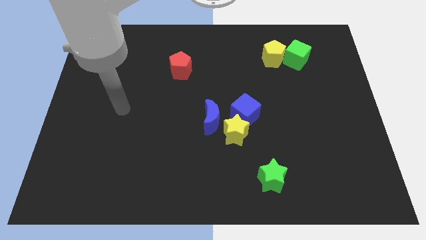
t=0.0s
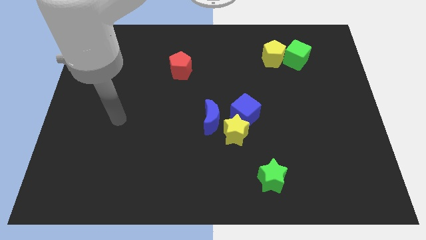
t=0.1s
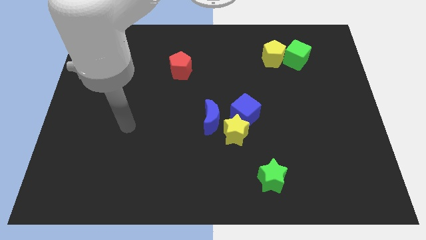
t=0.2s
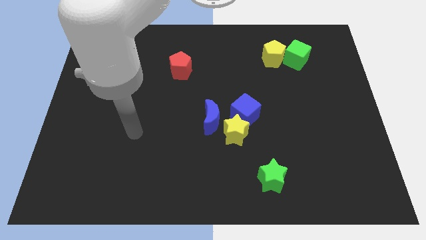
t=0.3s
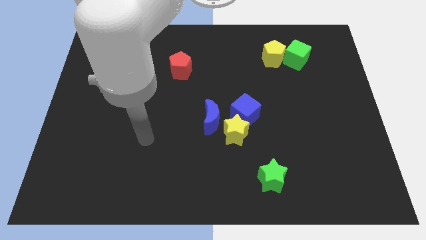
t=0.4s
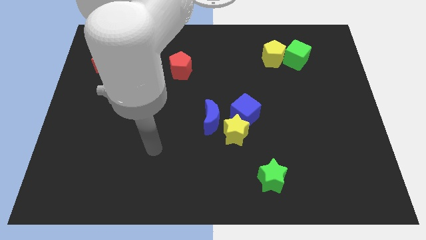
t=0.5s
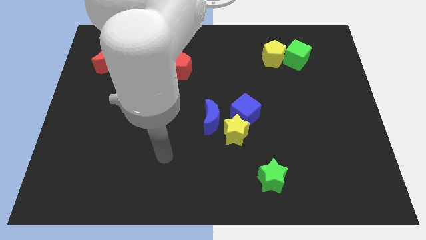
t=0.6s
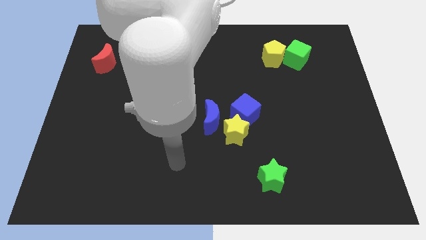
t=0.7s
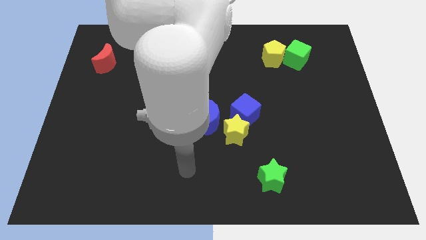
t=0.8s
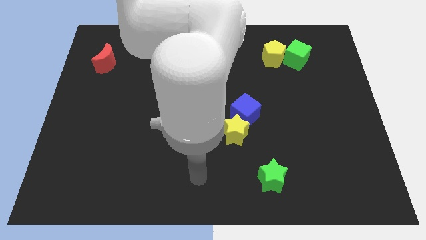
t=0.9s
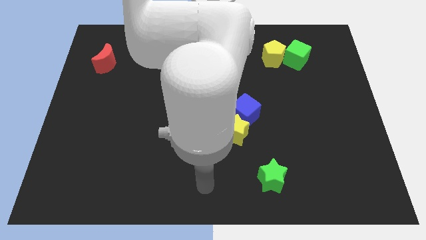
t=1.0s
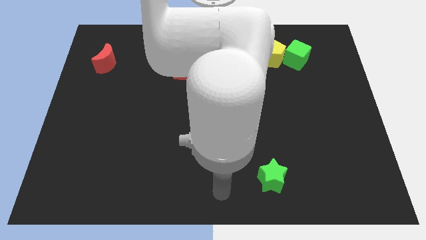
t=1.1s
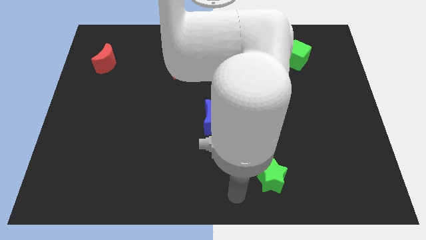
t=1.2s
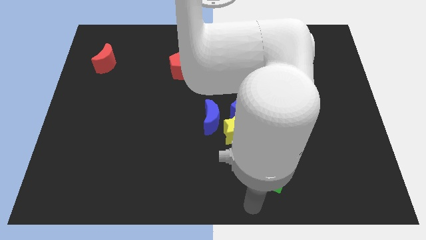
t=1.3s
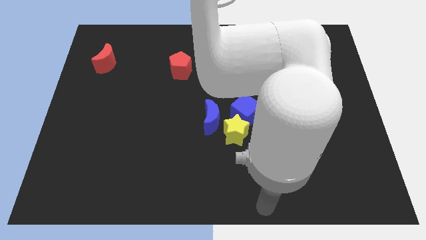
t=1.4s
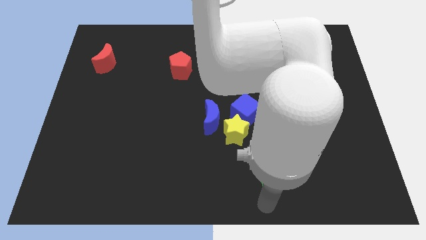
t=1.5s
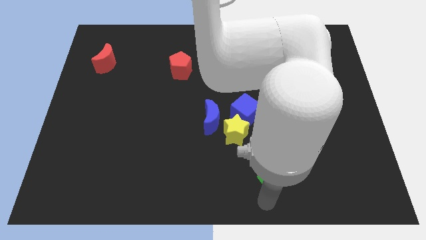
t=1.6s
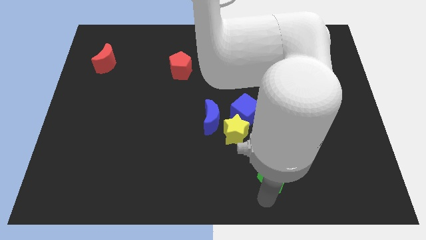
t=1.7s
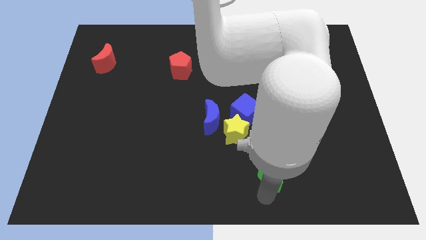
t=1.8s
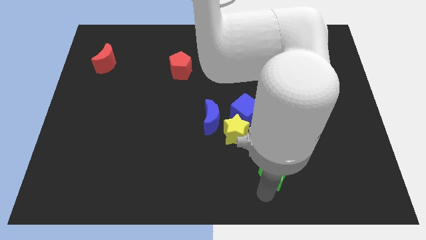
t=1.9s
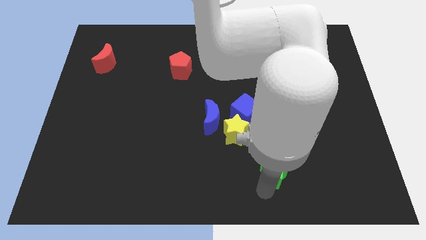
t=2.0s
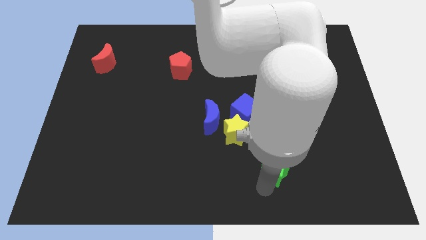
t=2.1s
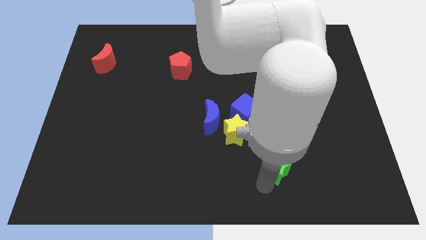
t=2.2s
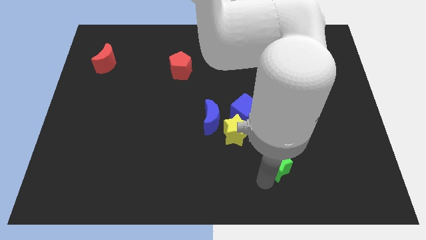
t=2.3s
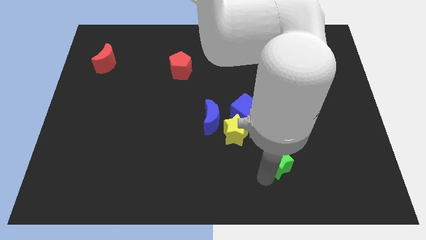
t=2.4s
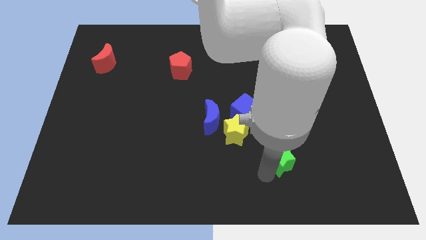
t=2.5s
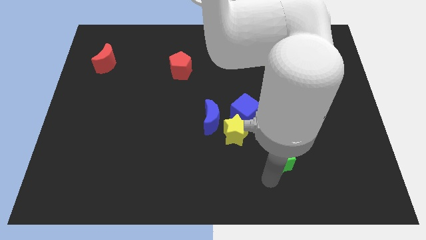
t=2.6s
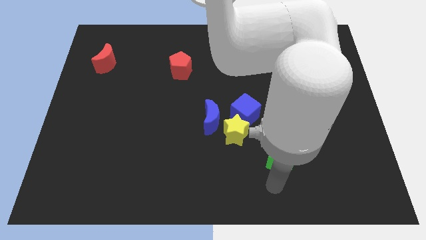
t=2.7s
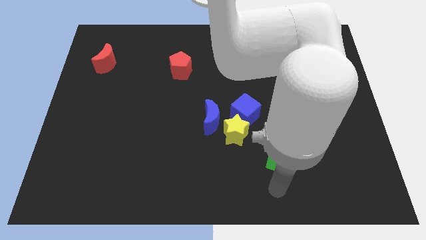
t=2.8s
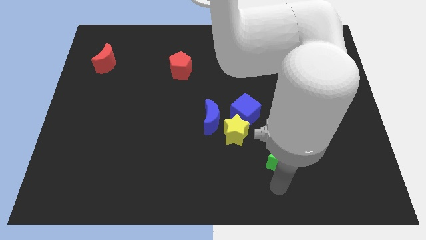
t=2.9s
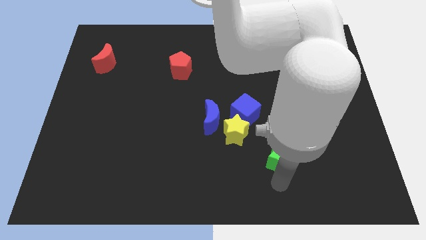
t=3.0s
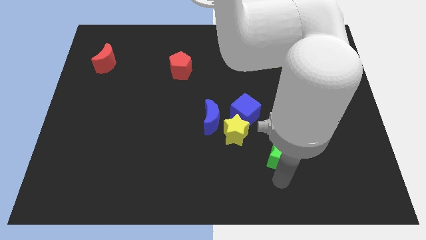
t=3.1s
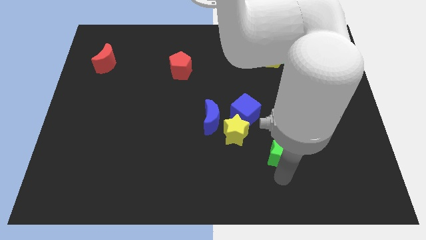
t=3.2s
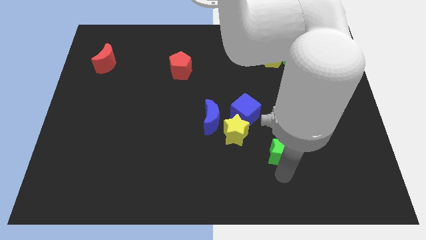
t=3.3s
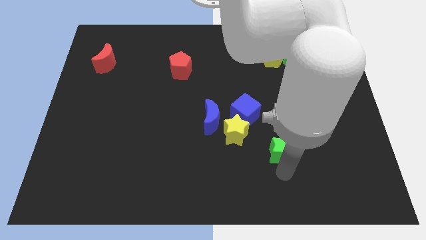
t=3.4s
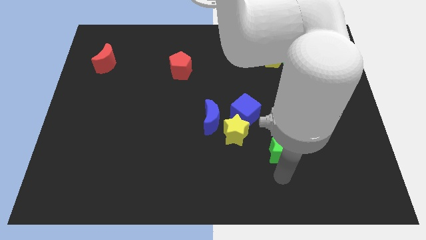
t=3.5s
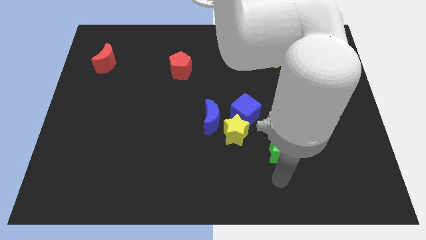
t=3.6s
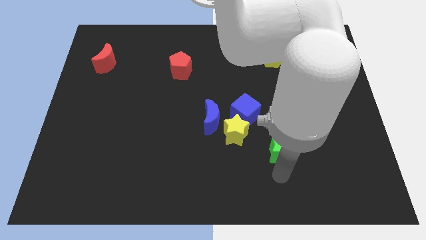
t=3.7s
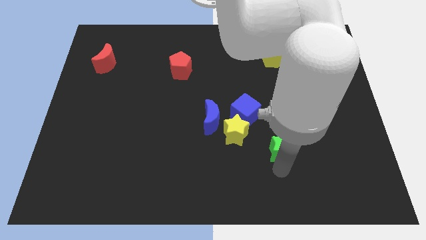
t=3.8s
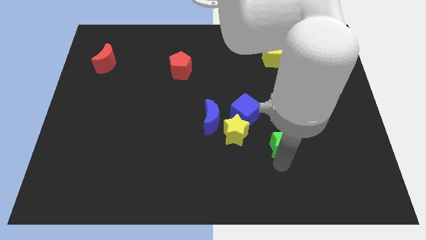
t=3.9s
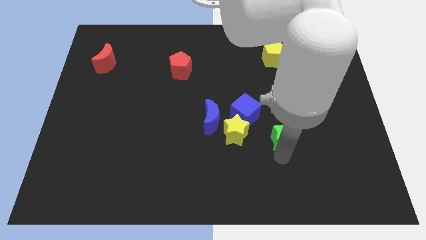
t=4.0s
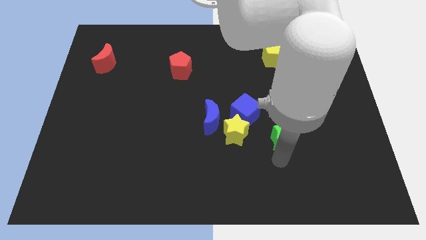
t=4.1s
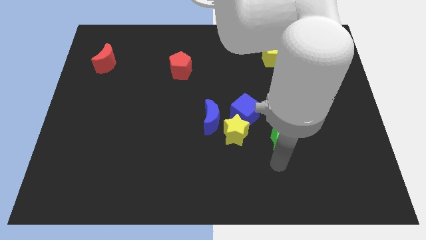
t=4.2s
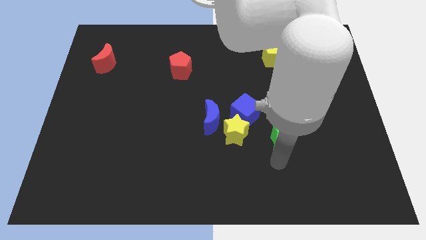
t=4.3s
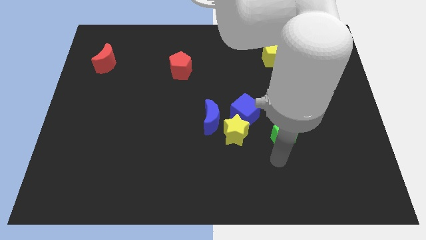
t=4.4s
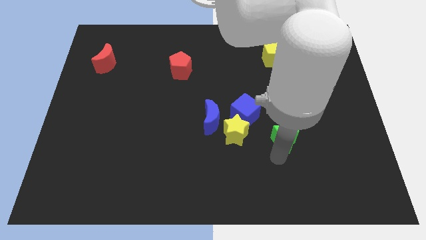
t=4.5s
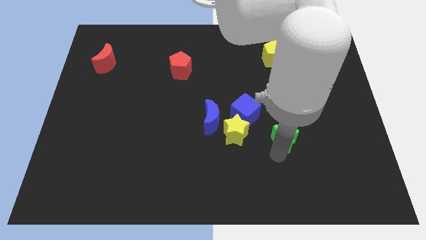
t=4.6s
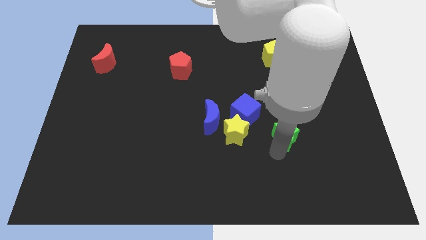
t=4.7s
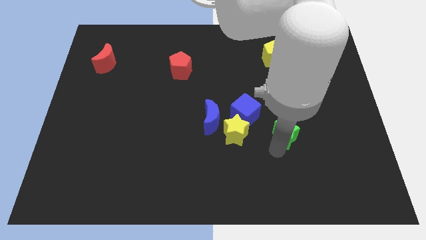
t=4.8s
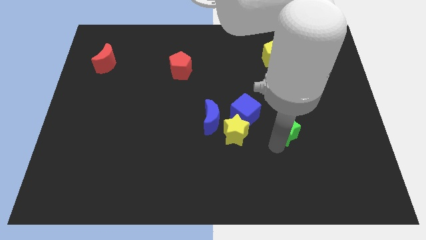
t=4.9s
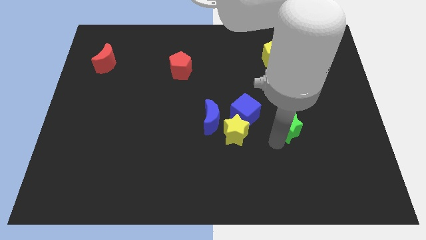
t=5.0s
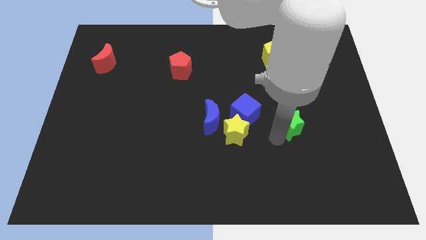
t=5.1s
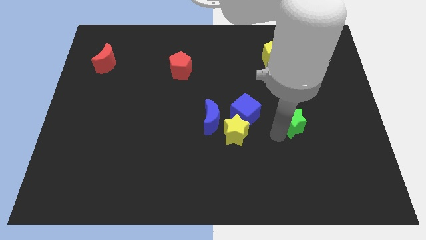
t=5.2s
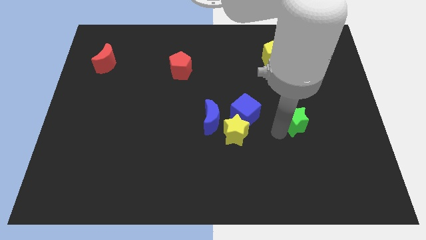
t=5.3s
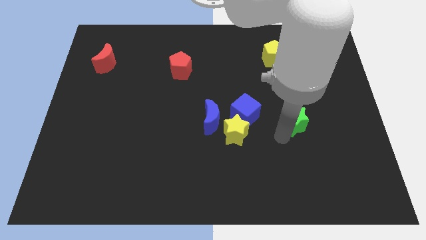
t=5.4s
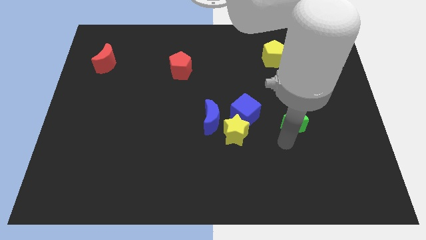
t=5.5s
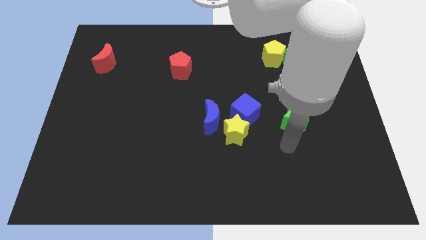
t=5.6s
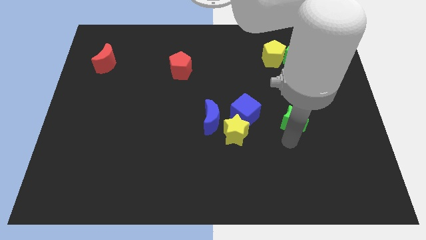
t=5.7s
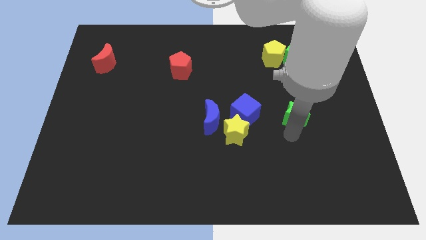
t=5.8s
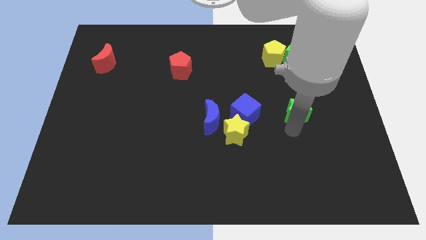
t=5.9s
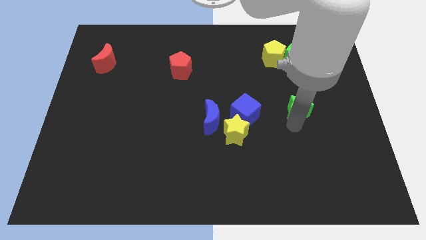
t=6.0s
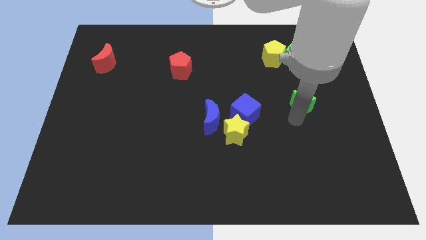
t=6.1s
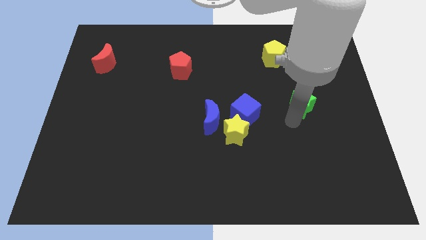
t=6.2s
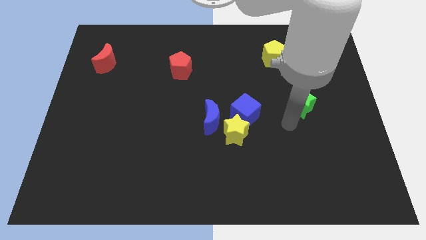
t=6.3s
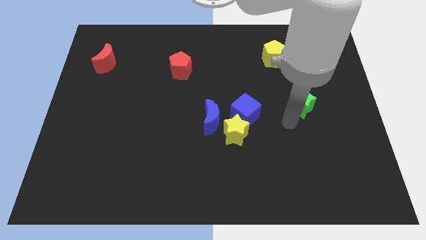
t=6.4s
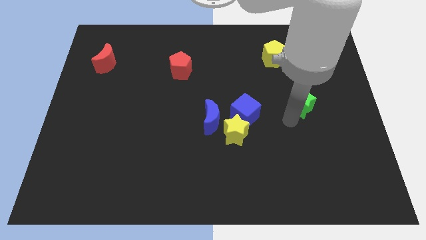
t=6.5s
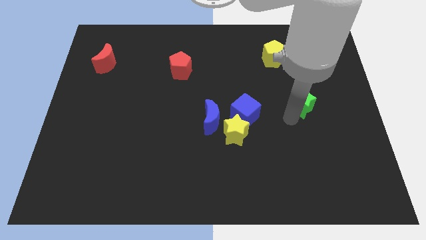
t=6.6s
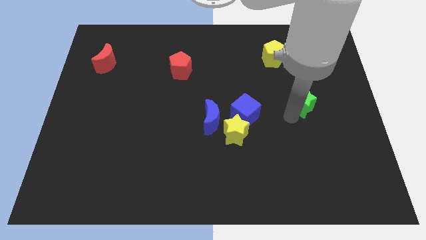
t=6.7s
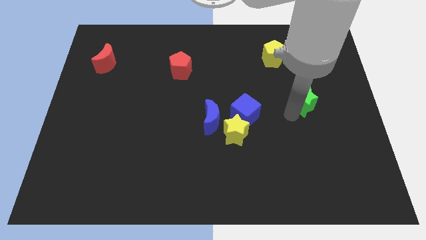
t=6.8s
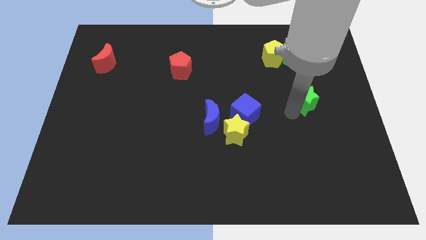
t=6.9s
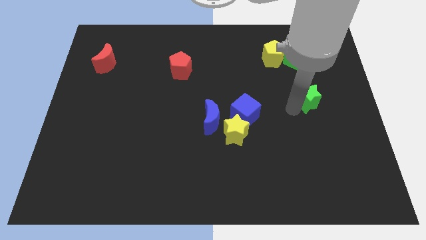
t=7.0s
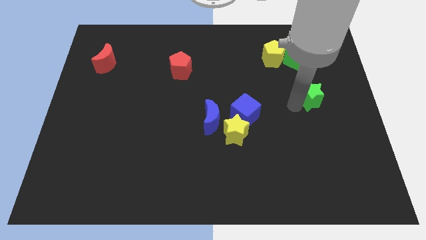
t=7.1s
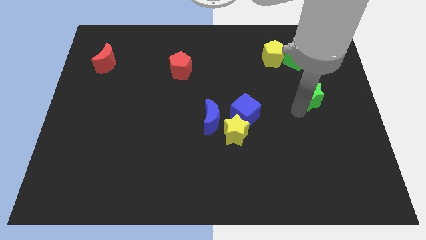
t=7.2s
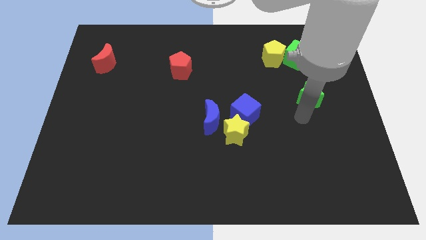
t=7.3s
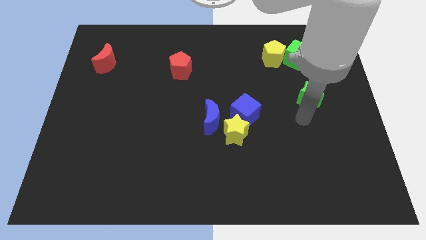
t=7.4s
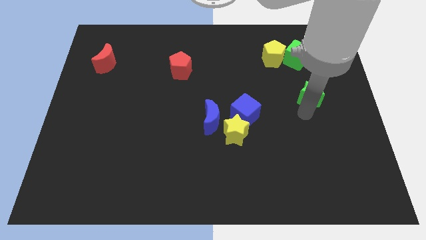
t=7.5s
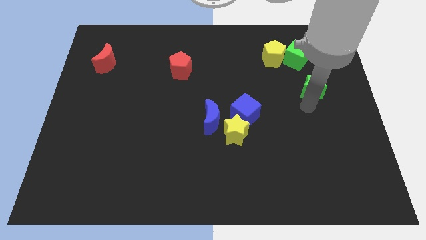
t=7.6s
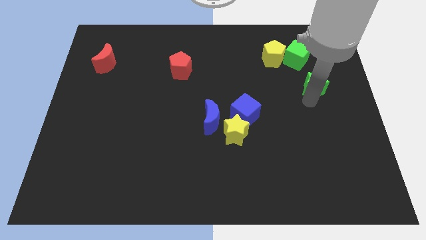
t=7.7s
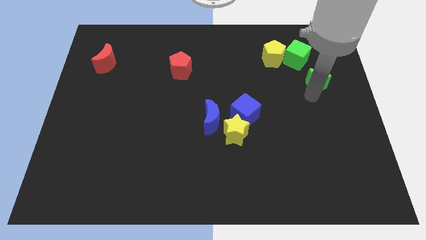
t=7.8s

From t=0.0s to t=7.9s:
put the green star diagonally down and to the right of the green cube
